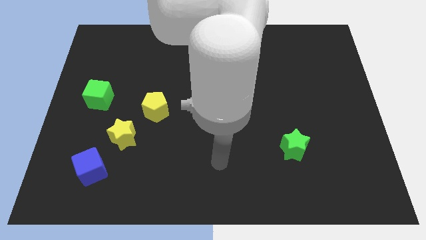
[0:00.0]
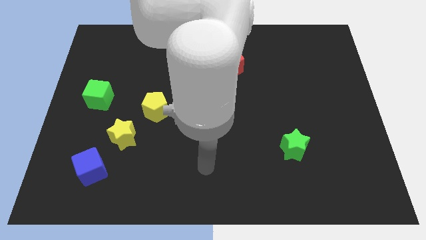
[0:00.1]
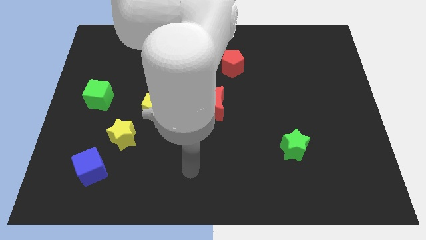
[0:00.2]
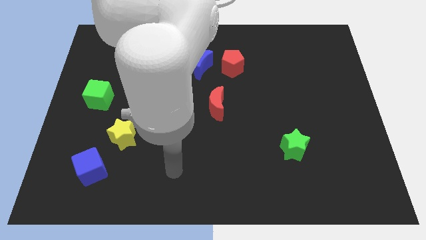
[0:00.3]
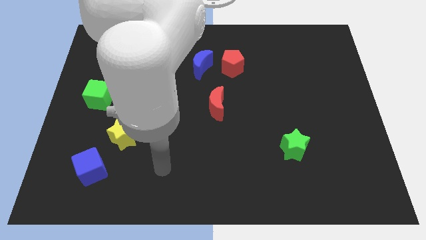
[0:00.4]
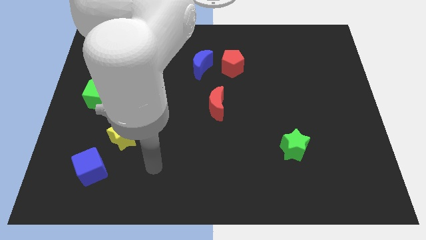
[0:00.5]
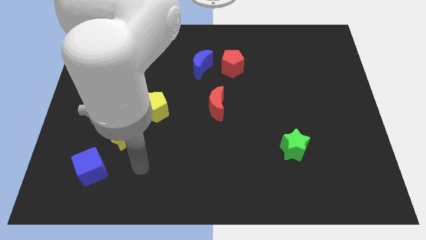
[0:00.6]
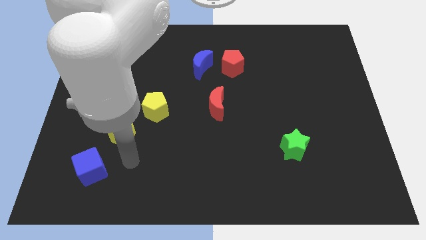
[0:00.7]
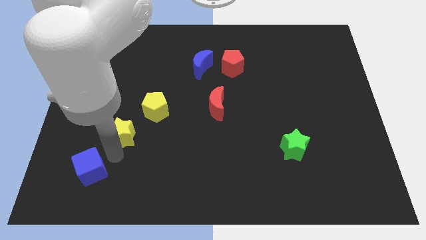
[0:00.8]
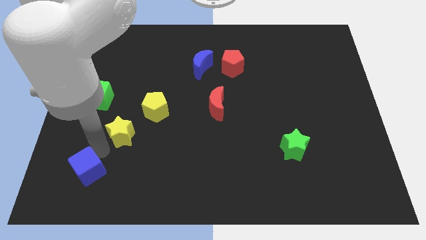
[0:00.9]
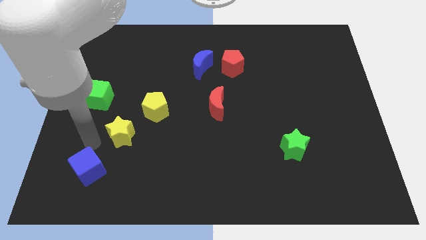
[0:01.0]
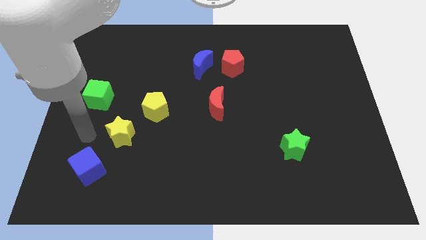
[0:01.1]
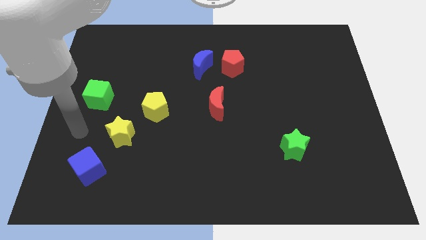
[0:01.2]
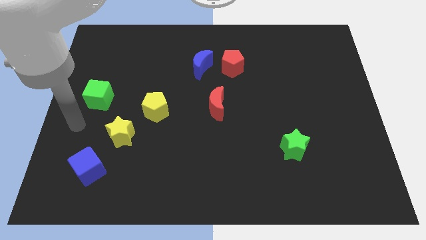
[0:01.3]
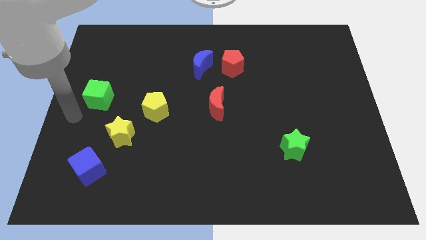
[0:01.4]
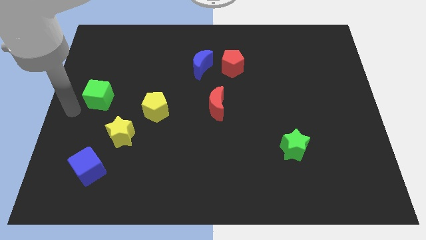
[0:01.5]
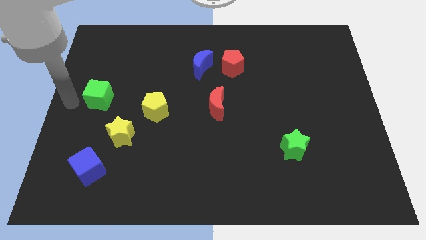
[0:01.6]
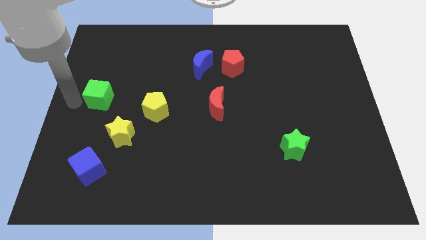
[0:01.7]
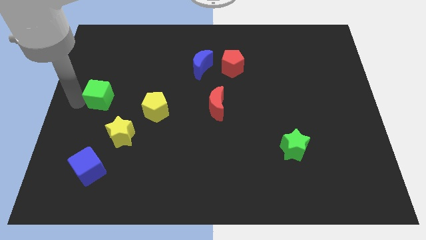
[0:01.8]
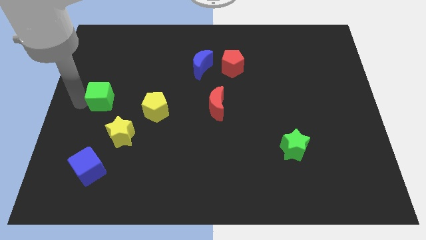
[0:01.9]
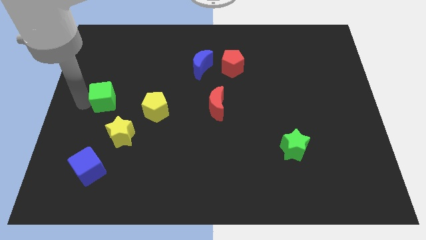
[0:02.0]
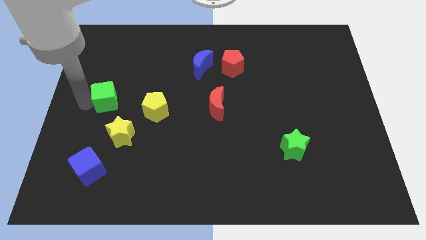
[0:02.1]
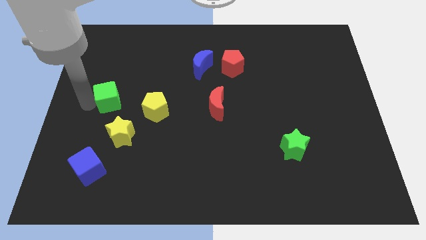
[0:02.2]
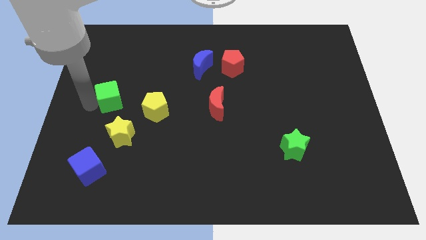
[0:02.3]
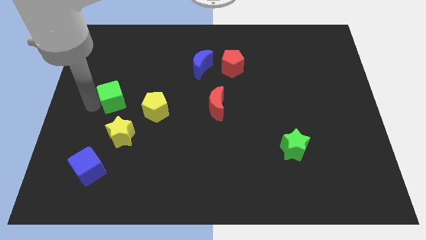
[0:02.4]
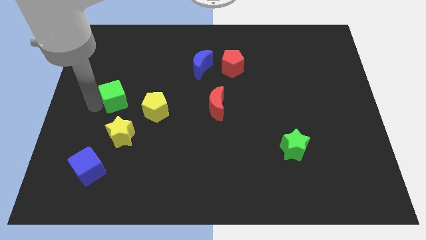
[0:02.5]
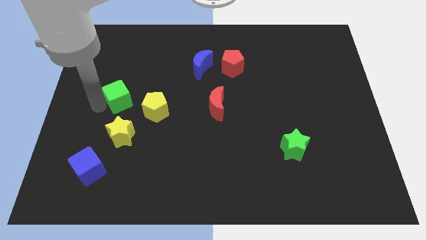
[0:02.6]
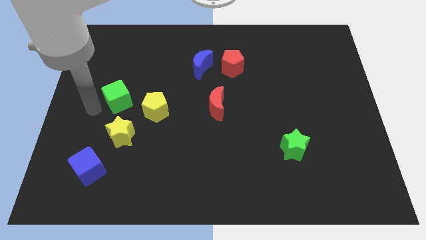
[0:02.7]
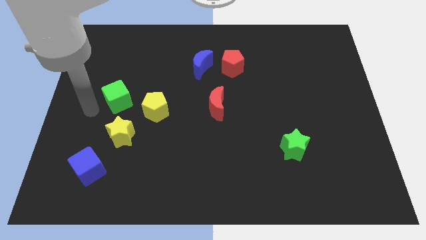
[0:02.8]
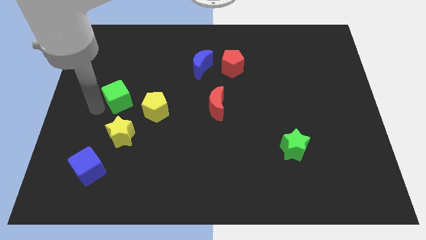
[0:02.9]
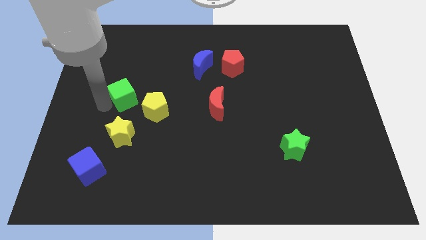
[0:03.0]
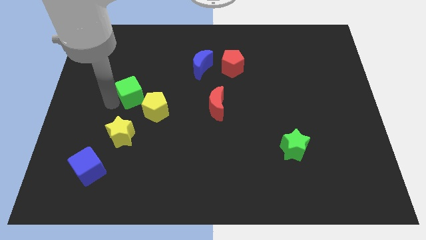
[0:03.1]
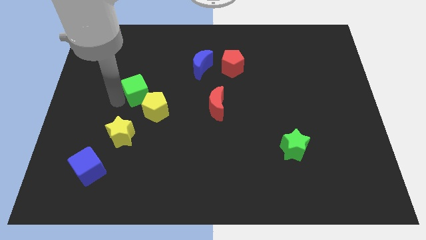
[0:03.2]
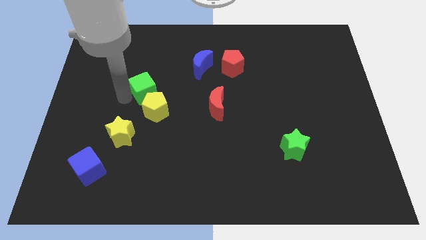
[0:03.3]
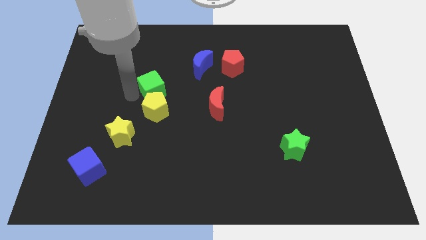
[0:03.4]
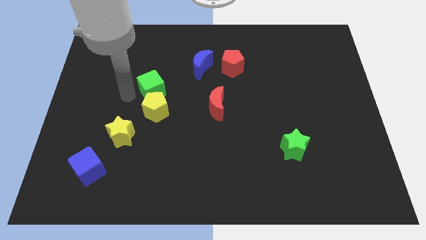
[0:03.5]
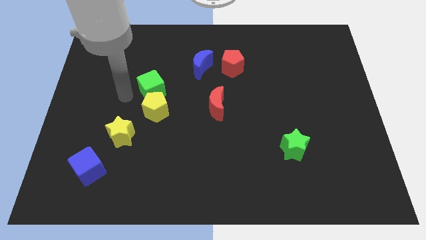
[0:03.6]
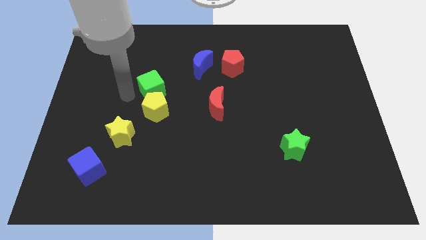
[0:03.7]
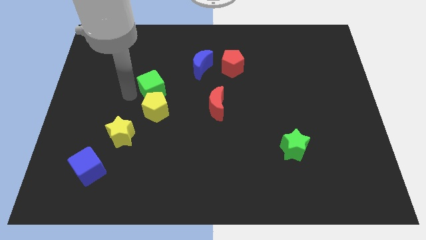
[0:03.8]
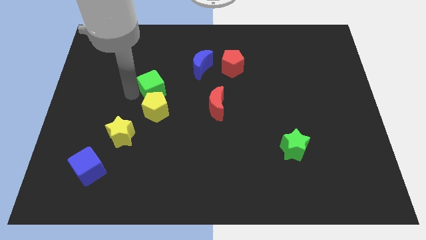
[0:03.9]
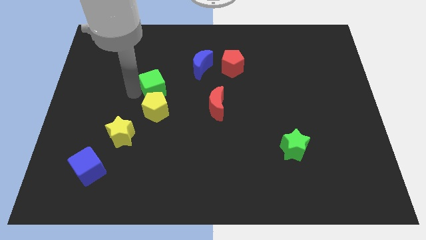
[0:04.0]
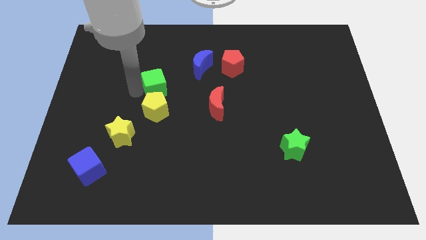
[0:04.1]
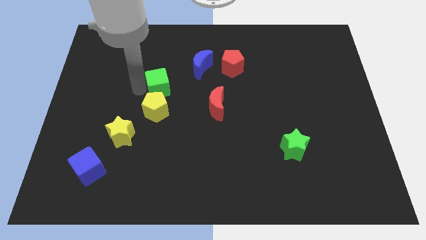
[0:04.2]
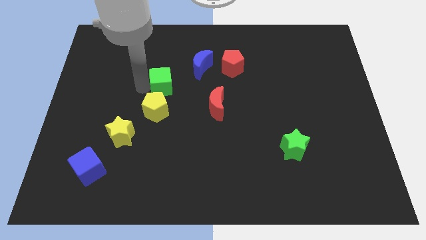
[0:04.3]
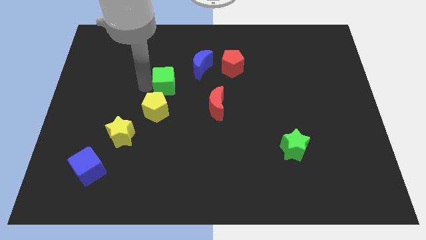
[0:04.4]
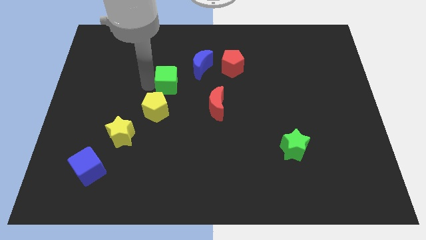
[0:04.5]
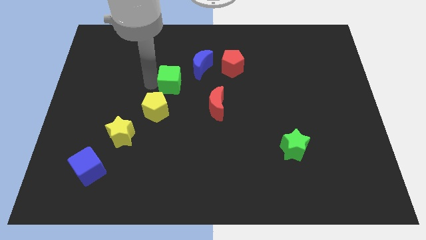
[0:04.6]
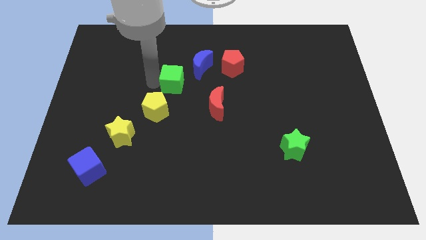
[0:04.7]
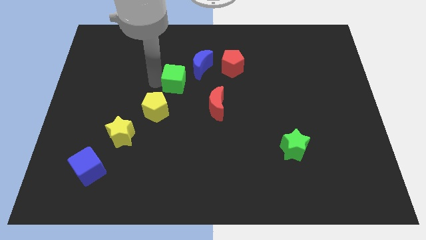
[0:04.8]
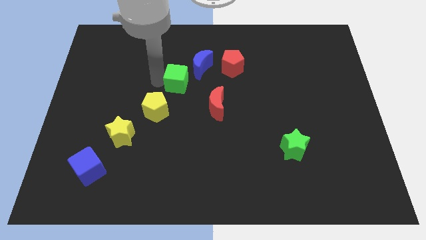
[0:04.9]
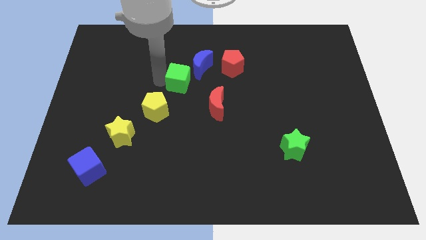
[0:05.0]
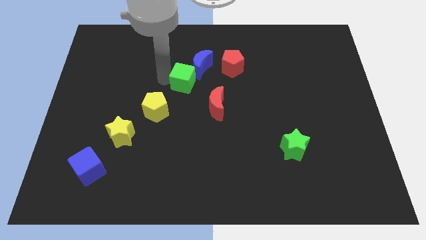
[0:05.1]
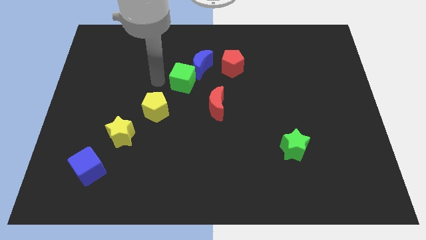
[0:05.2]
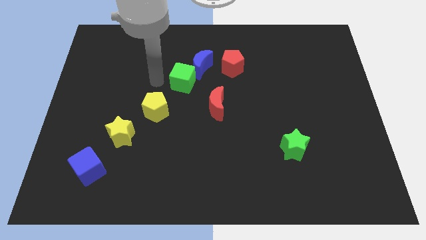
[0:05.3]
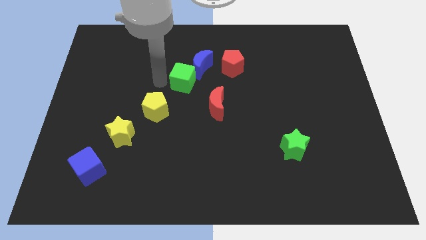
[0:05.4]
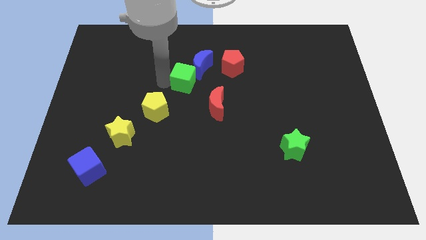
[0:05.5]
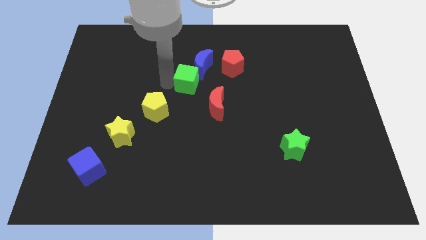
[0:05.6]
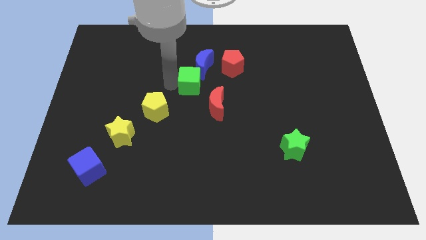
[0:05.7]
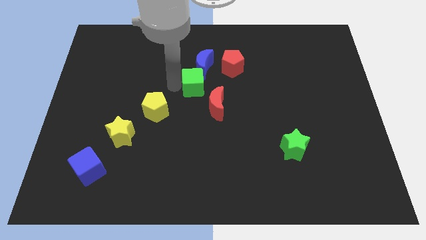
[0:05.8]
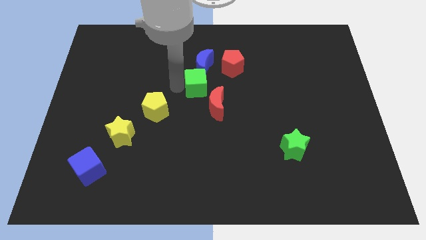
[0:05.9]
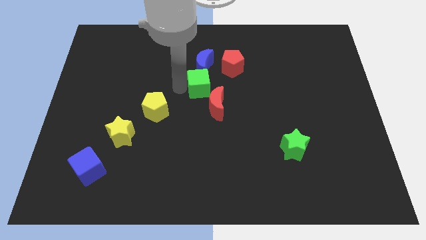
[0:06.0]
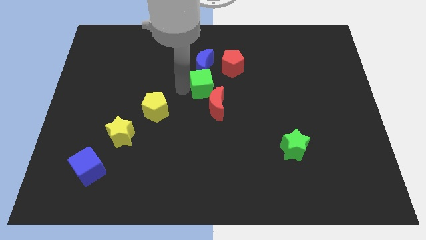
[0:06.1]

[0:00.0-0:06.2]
move the green cube diagonally down and to the right of the blue moon
